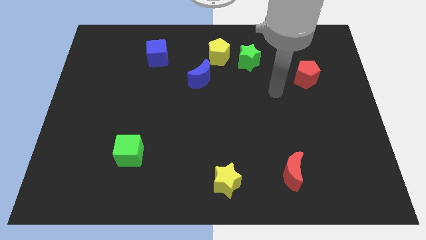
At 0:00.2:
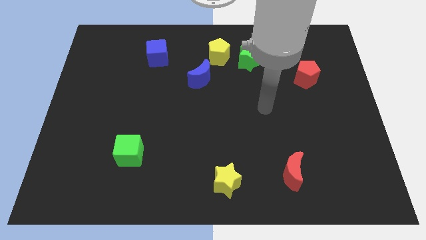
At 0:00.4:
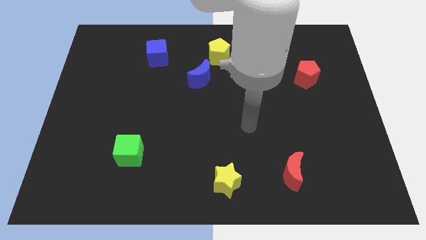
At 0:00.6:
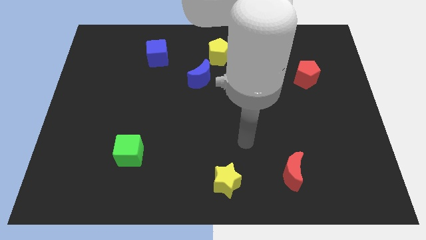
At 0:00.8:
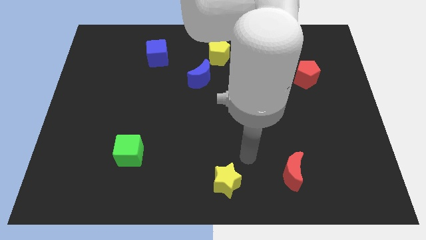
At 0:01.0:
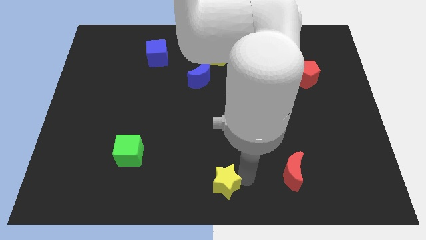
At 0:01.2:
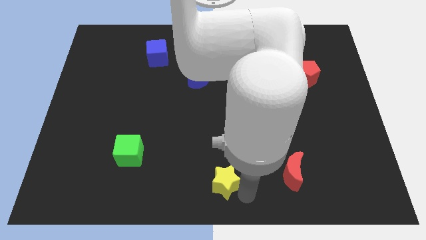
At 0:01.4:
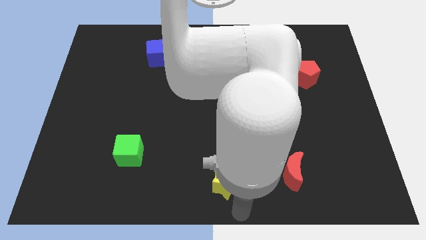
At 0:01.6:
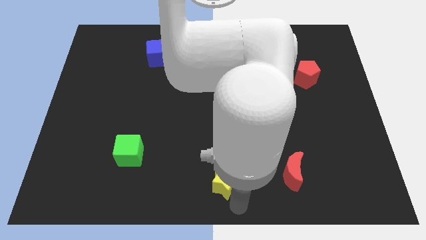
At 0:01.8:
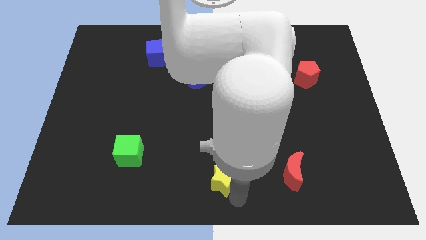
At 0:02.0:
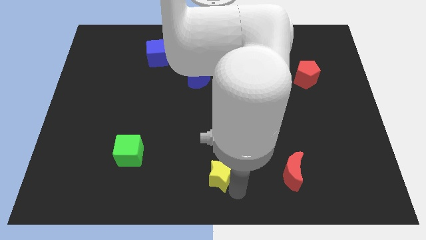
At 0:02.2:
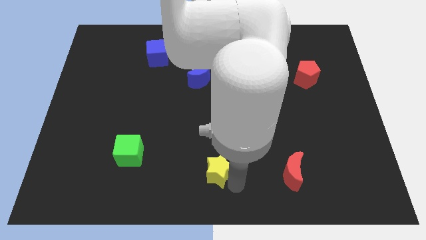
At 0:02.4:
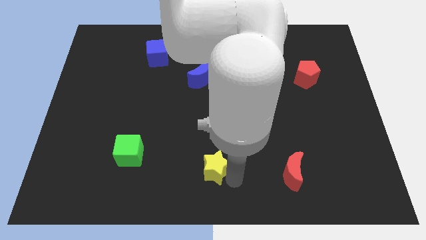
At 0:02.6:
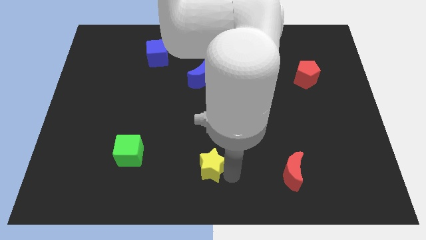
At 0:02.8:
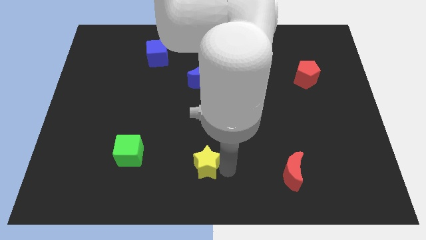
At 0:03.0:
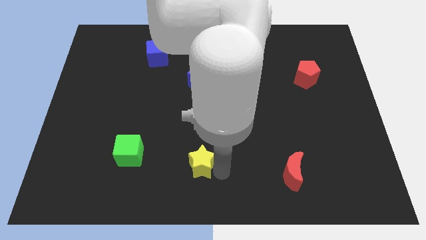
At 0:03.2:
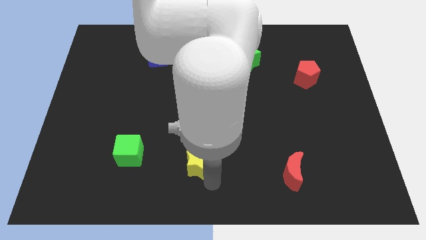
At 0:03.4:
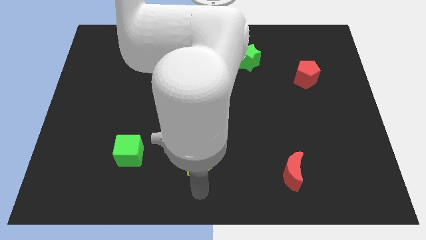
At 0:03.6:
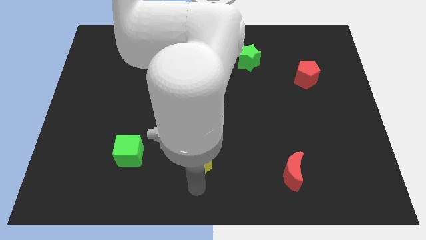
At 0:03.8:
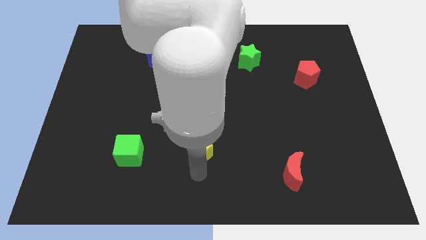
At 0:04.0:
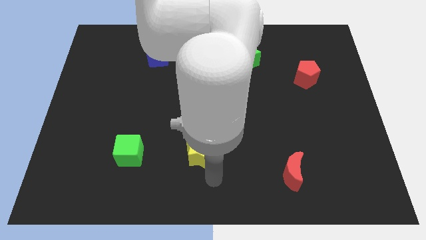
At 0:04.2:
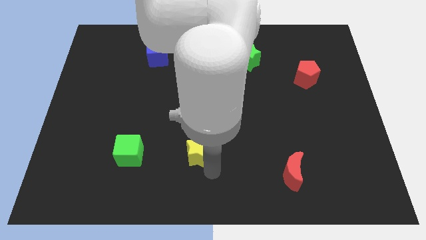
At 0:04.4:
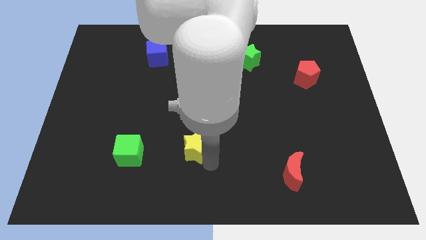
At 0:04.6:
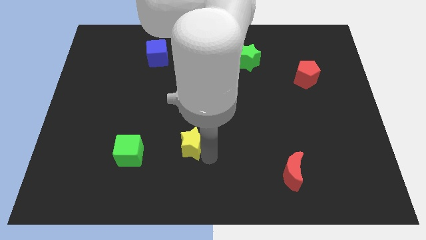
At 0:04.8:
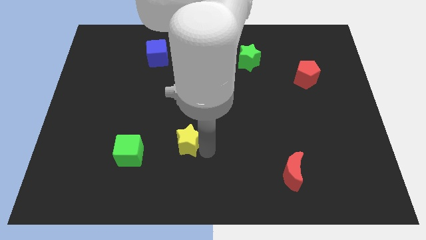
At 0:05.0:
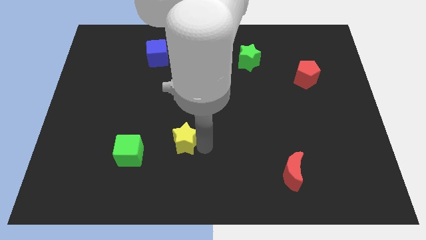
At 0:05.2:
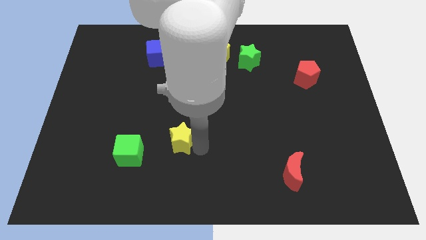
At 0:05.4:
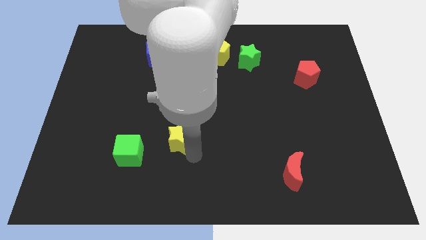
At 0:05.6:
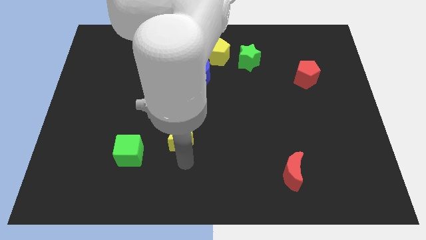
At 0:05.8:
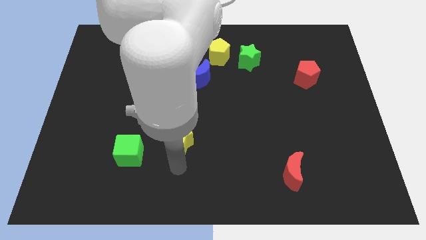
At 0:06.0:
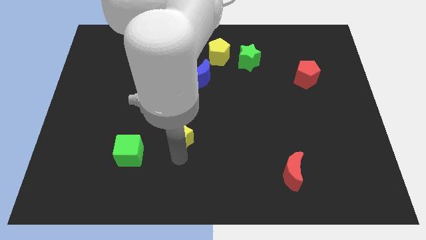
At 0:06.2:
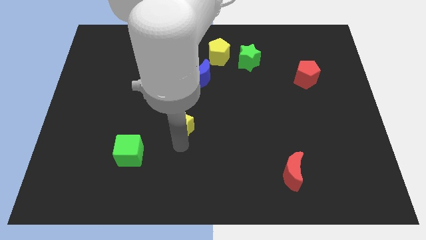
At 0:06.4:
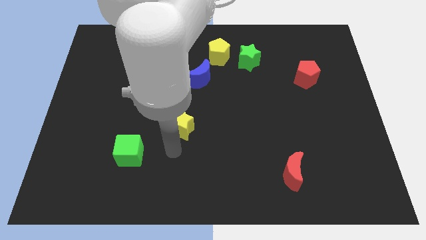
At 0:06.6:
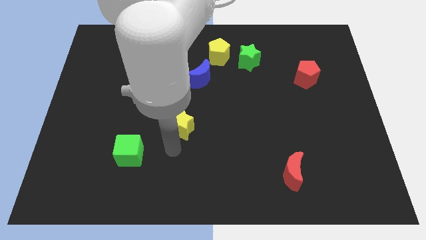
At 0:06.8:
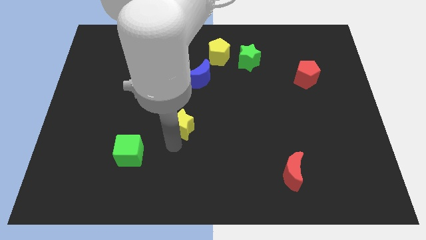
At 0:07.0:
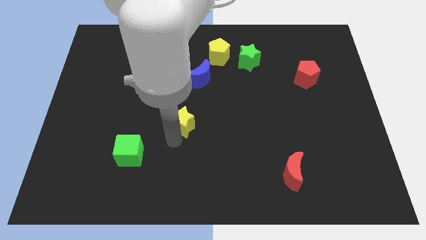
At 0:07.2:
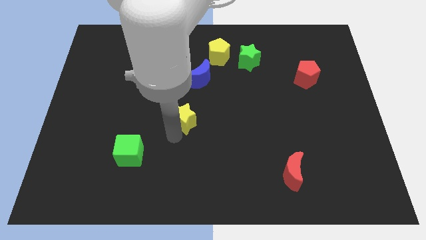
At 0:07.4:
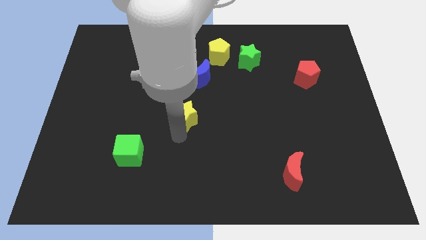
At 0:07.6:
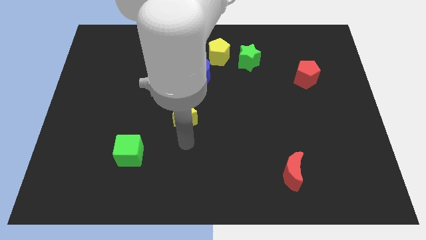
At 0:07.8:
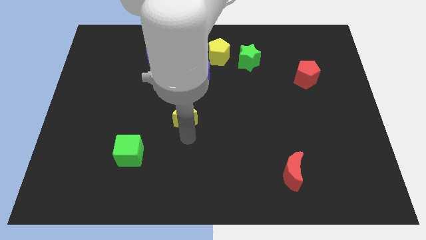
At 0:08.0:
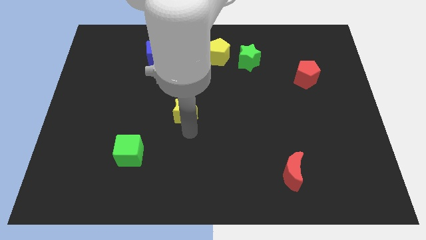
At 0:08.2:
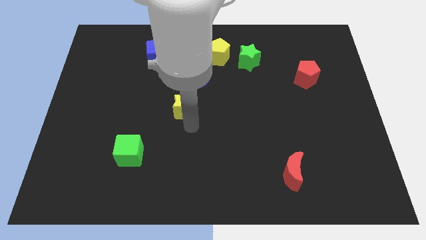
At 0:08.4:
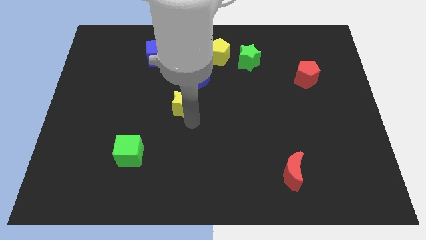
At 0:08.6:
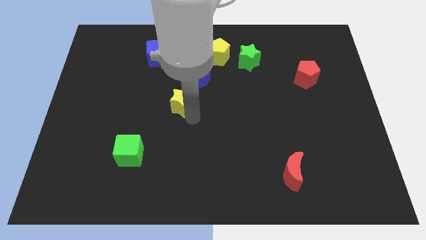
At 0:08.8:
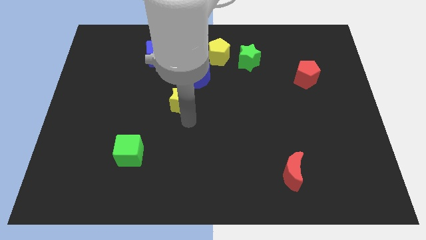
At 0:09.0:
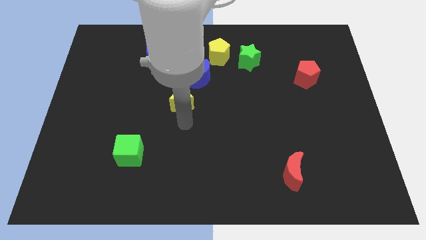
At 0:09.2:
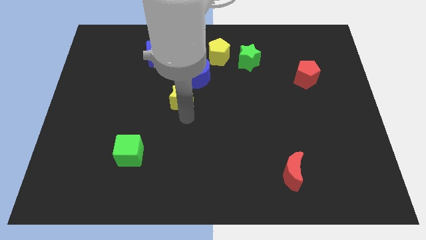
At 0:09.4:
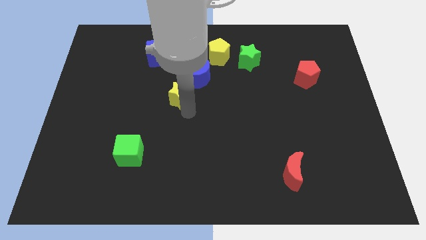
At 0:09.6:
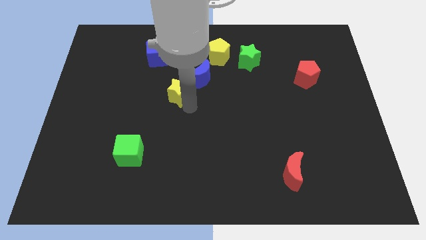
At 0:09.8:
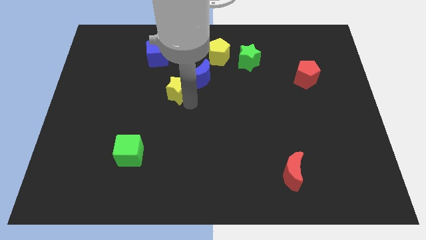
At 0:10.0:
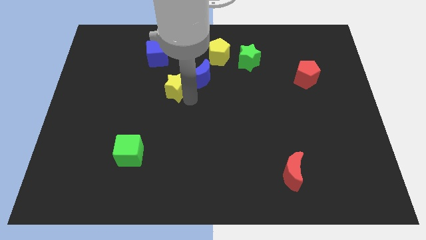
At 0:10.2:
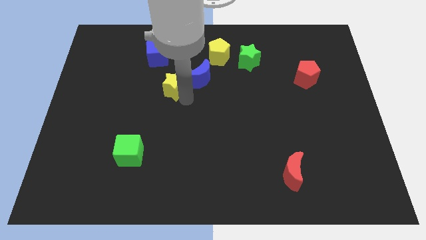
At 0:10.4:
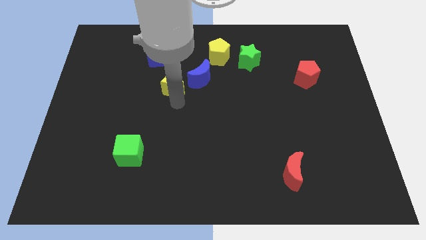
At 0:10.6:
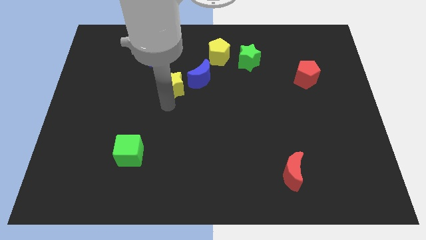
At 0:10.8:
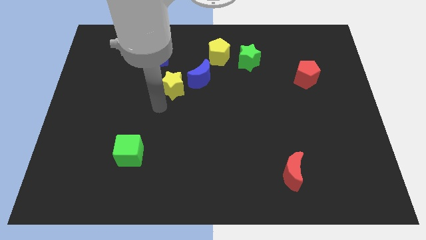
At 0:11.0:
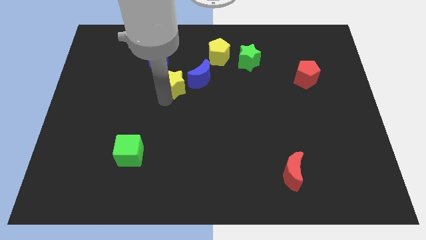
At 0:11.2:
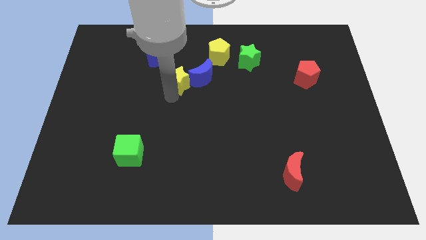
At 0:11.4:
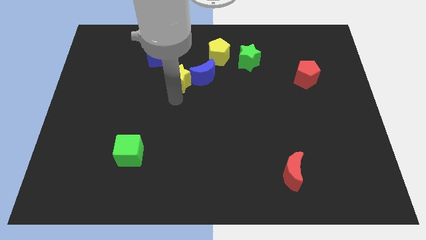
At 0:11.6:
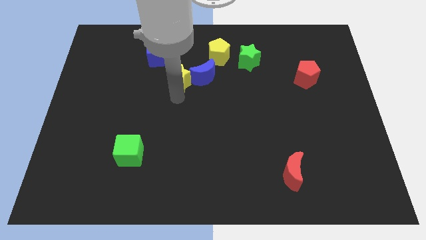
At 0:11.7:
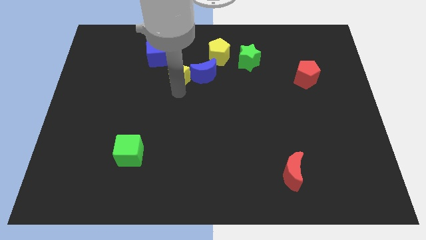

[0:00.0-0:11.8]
move the yellow star to the top left of the blue moon
